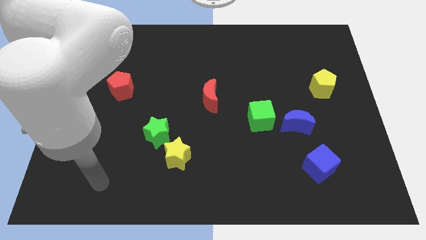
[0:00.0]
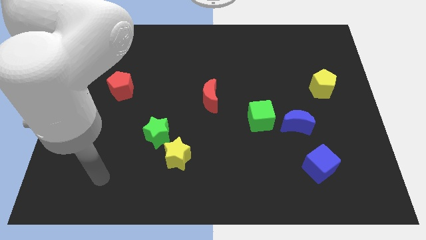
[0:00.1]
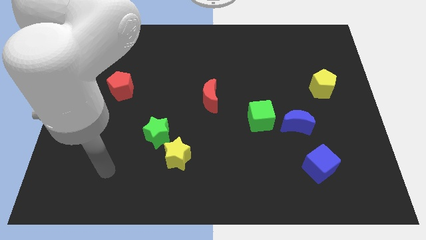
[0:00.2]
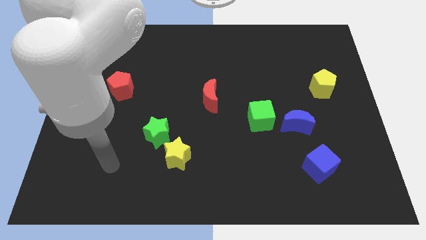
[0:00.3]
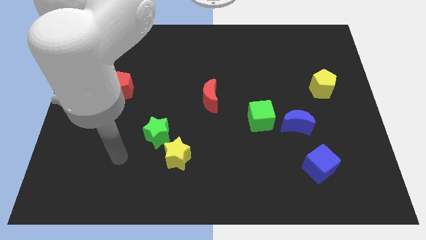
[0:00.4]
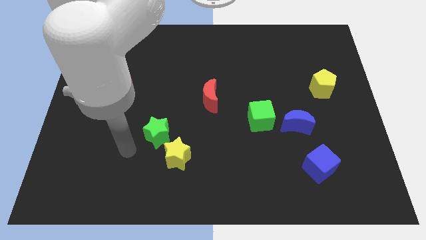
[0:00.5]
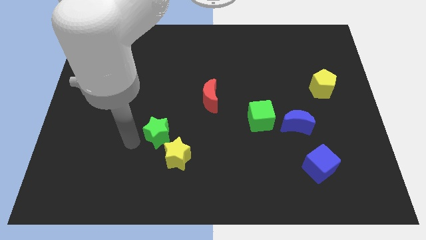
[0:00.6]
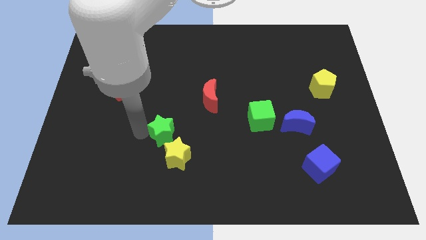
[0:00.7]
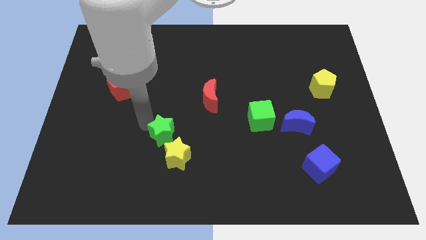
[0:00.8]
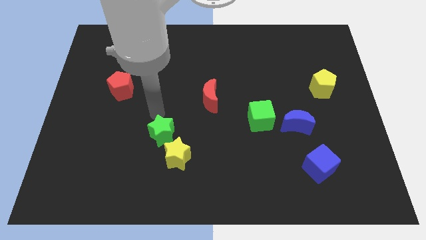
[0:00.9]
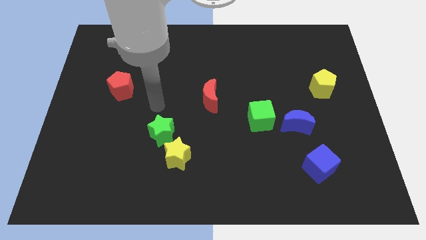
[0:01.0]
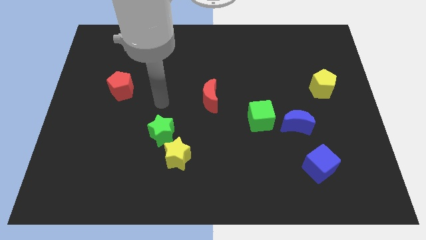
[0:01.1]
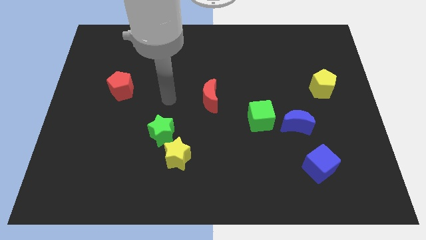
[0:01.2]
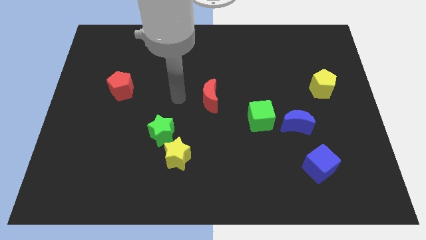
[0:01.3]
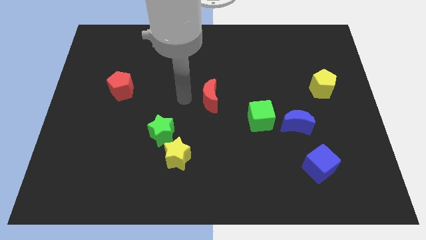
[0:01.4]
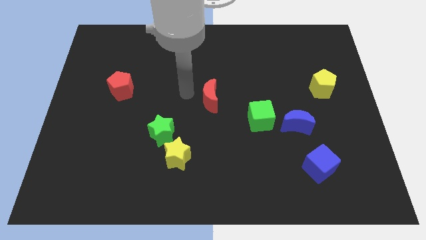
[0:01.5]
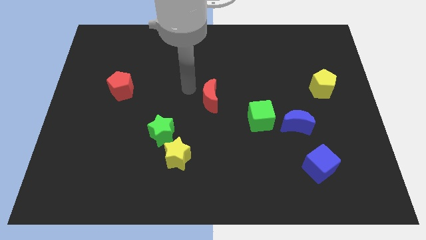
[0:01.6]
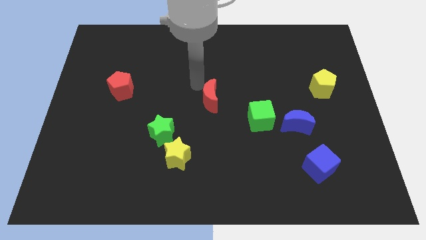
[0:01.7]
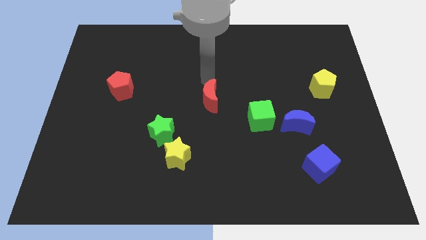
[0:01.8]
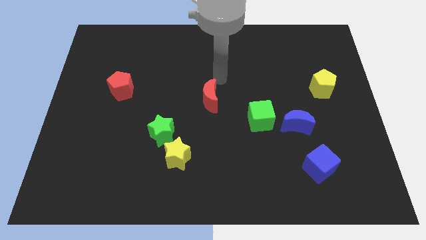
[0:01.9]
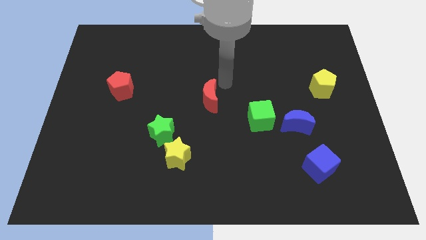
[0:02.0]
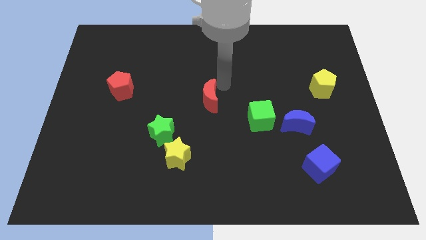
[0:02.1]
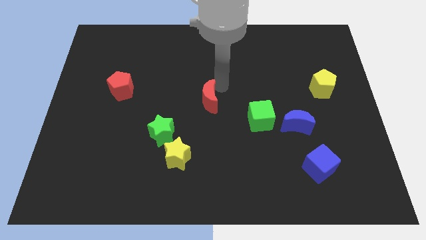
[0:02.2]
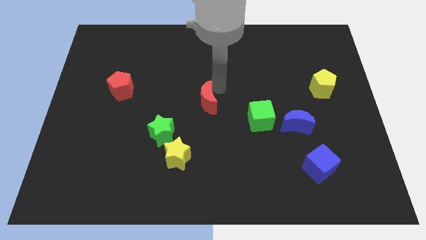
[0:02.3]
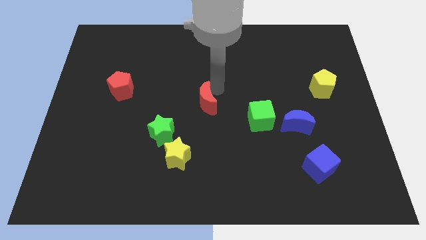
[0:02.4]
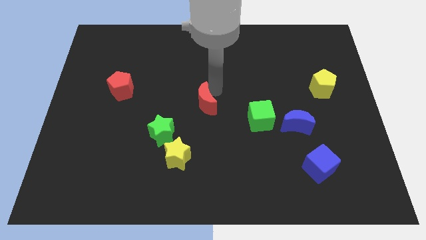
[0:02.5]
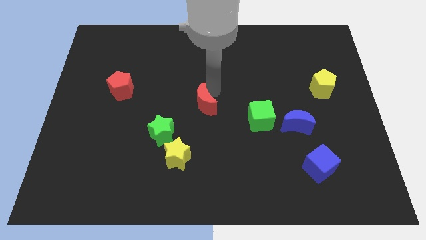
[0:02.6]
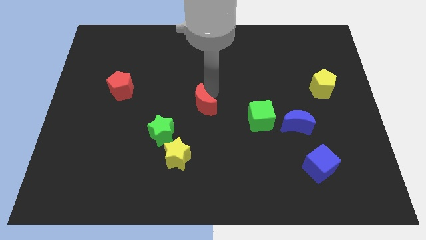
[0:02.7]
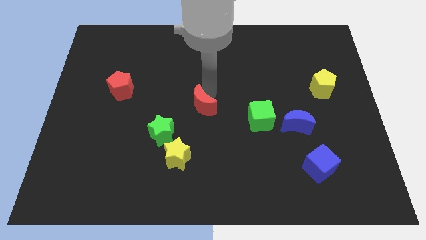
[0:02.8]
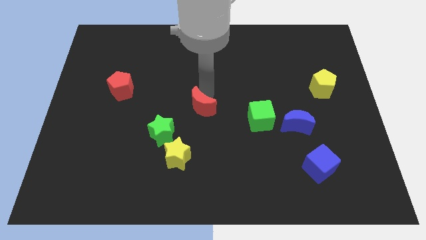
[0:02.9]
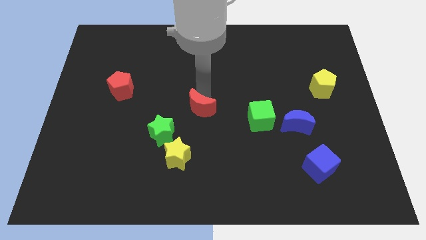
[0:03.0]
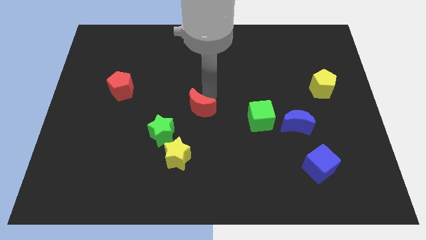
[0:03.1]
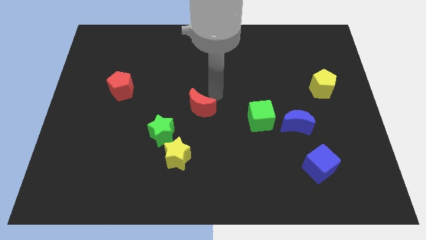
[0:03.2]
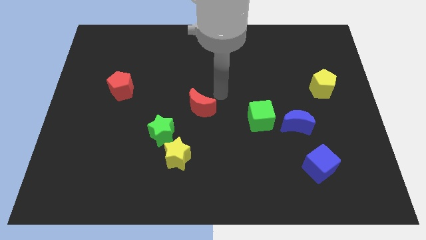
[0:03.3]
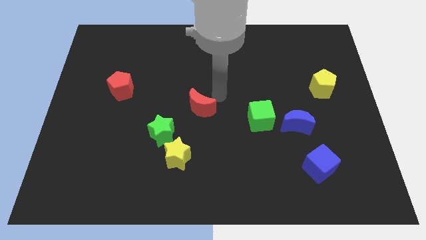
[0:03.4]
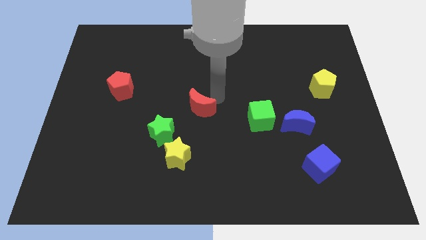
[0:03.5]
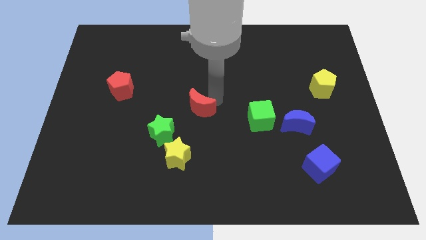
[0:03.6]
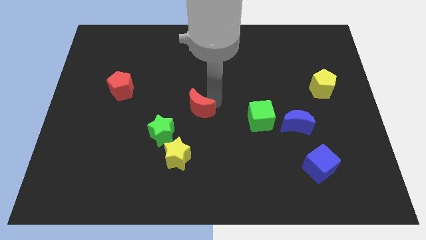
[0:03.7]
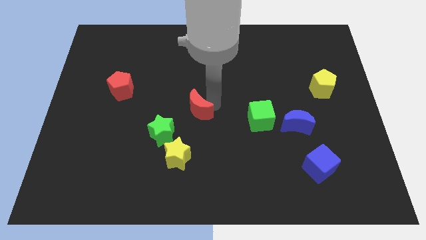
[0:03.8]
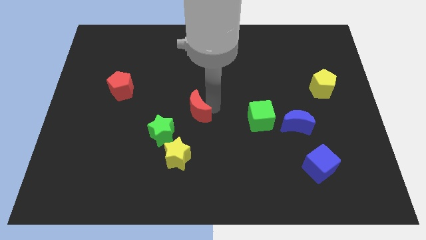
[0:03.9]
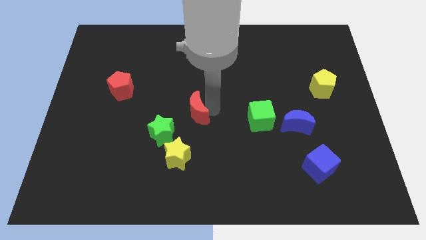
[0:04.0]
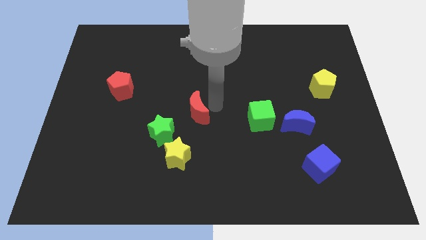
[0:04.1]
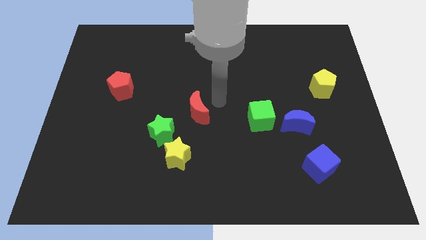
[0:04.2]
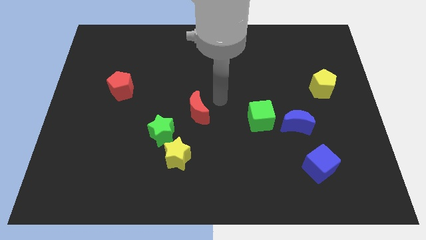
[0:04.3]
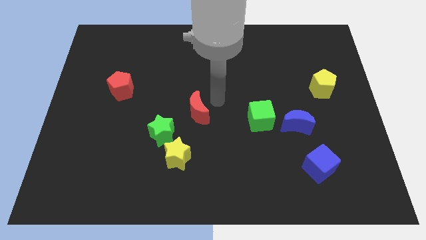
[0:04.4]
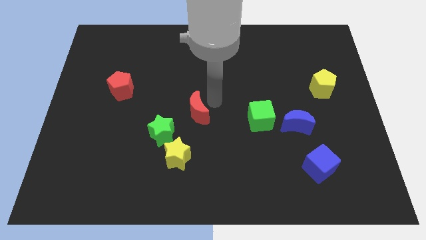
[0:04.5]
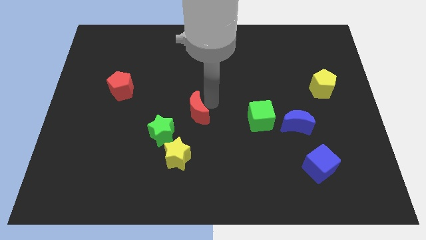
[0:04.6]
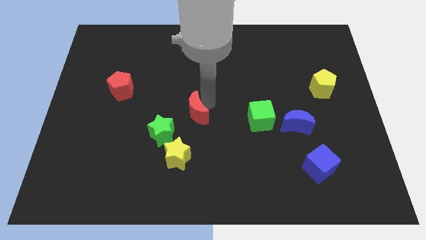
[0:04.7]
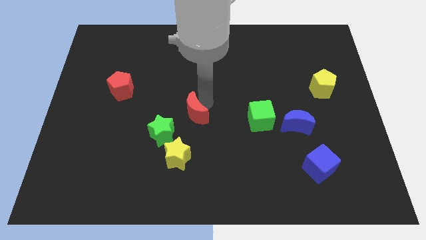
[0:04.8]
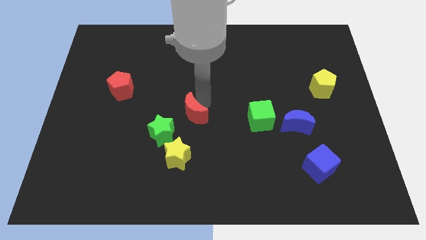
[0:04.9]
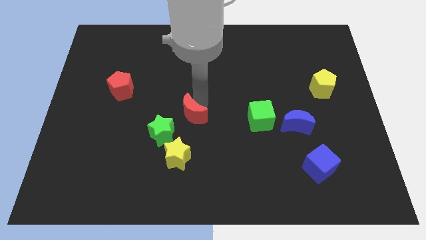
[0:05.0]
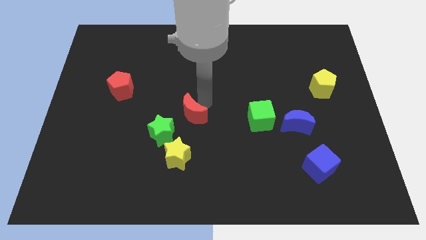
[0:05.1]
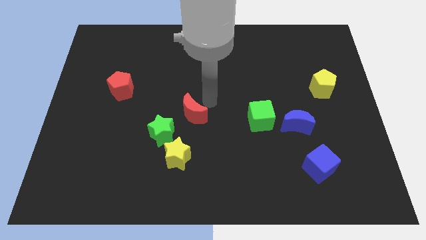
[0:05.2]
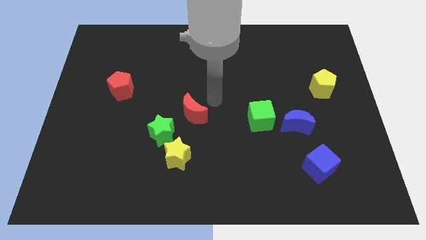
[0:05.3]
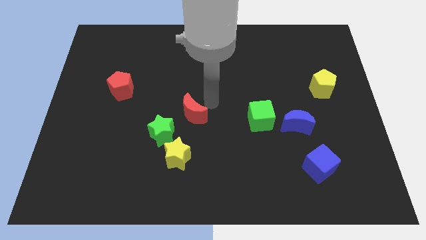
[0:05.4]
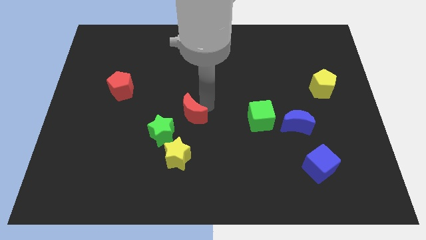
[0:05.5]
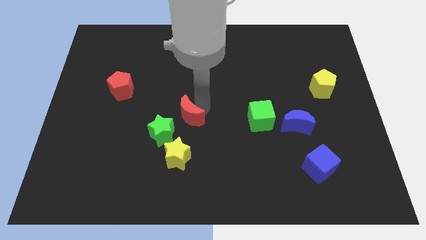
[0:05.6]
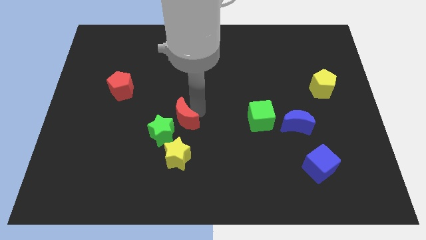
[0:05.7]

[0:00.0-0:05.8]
slide the red moon close to the green star

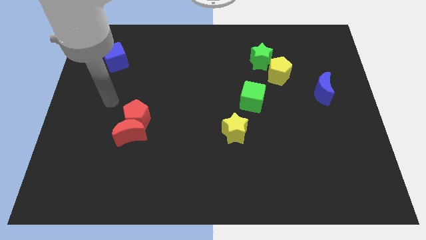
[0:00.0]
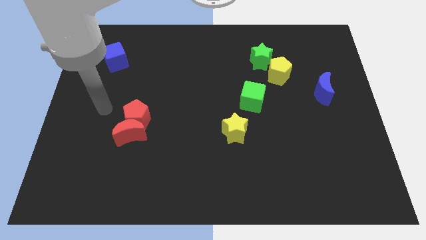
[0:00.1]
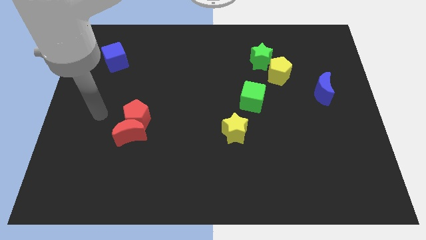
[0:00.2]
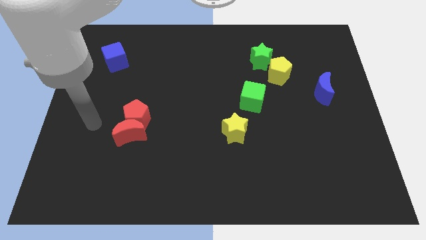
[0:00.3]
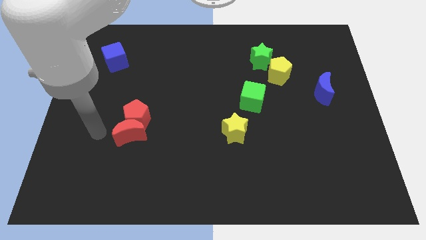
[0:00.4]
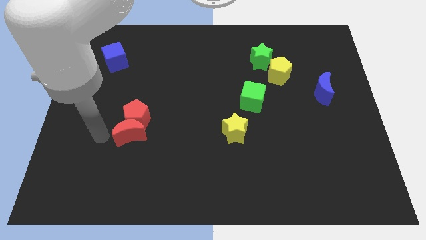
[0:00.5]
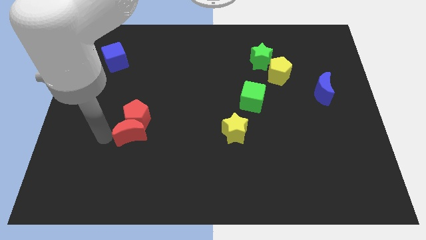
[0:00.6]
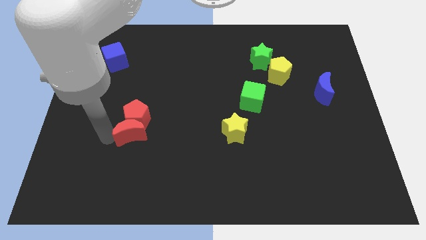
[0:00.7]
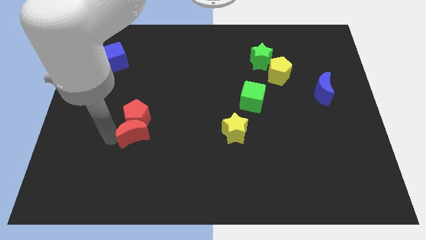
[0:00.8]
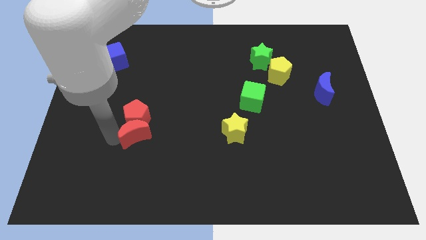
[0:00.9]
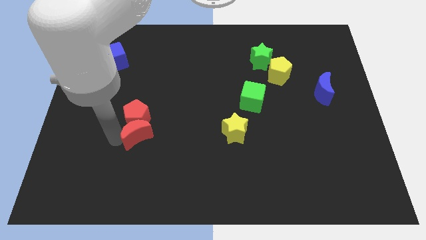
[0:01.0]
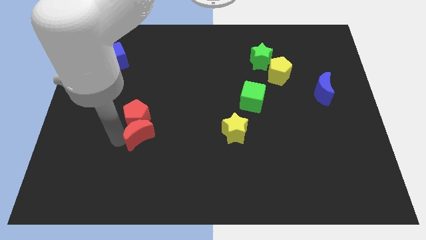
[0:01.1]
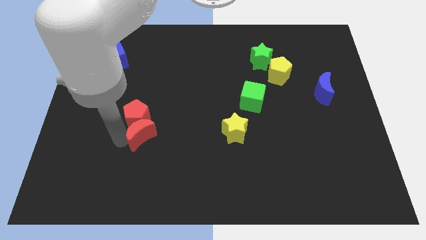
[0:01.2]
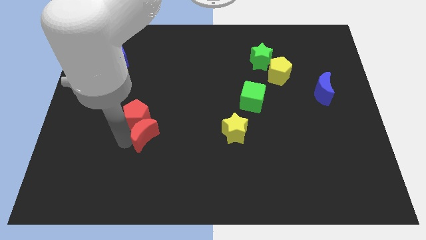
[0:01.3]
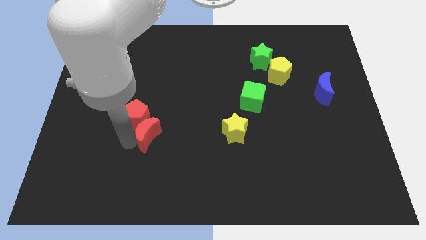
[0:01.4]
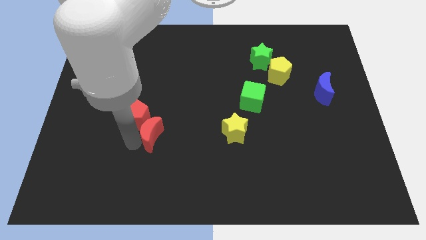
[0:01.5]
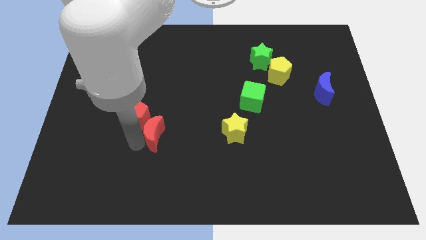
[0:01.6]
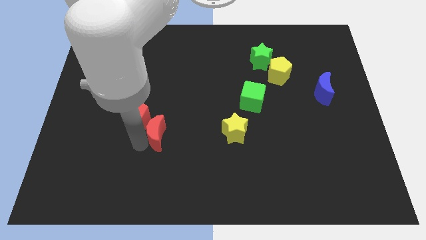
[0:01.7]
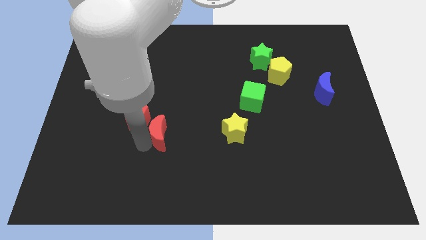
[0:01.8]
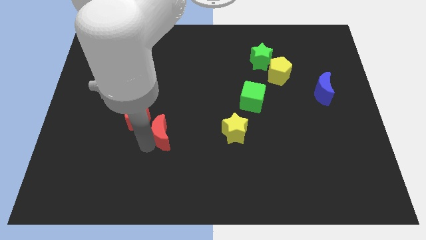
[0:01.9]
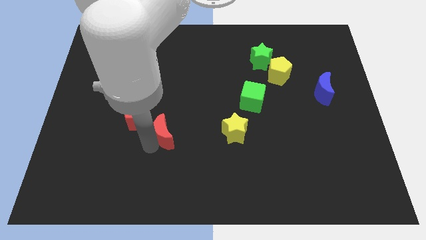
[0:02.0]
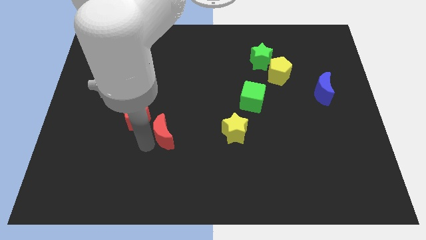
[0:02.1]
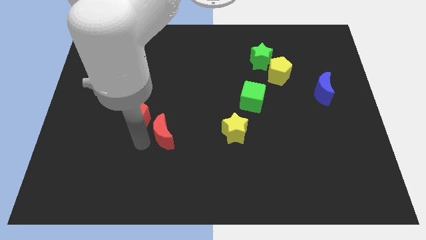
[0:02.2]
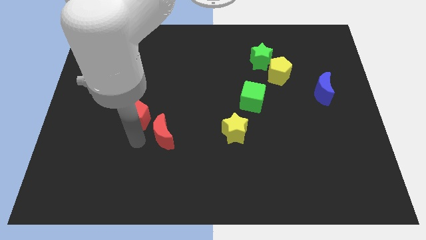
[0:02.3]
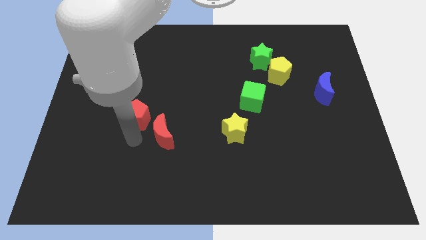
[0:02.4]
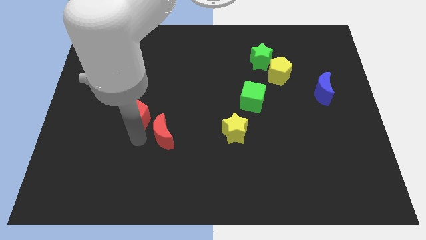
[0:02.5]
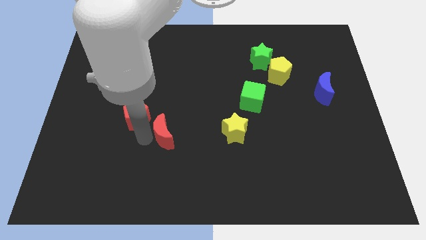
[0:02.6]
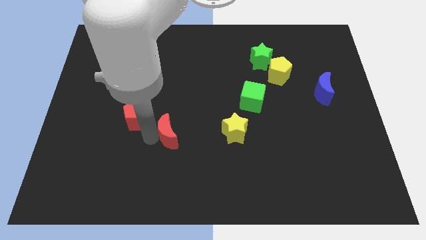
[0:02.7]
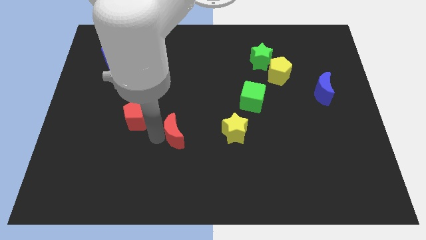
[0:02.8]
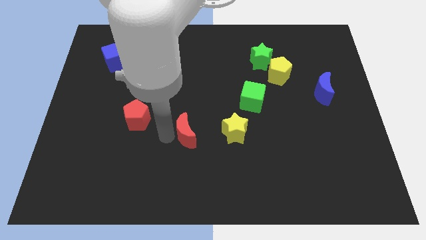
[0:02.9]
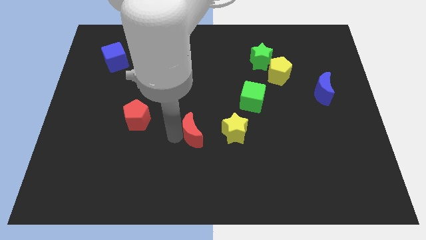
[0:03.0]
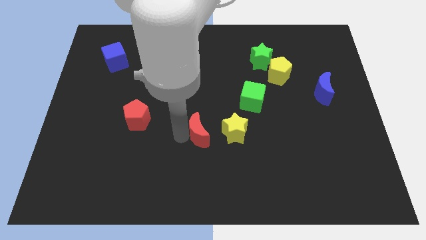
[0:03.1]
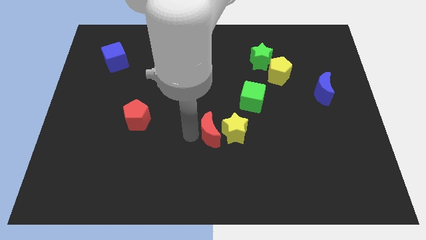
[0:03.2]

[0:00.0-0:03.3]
put the red moon close to the yellow star
